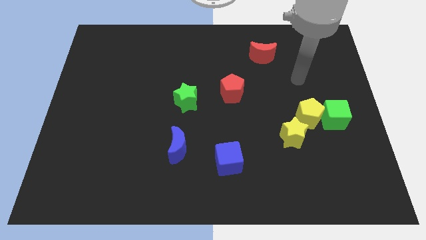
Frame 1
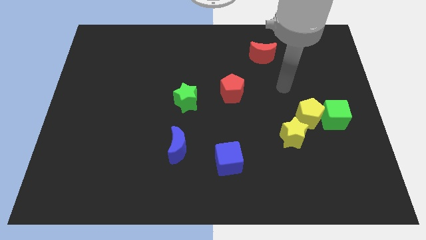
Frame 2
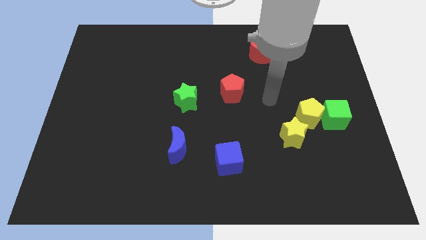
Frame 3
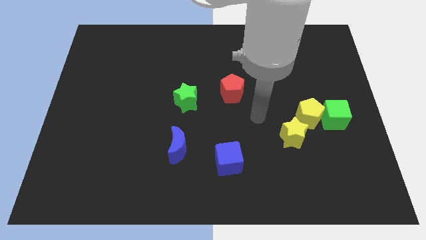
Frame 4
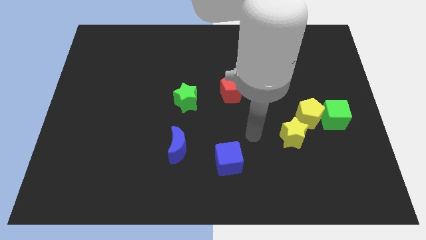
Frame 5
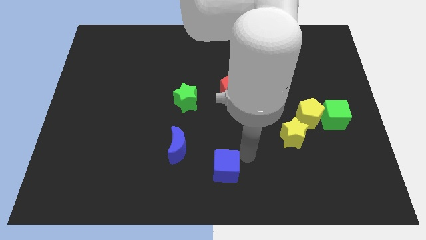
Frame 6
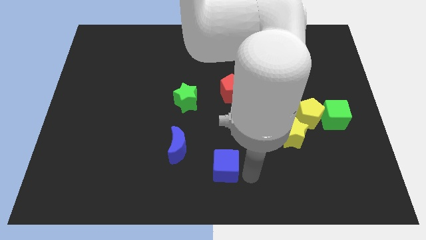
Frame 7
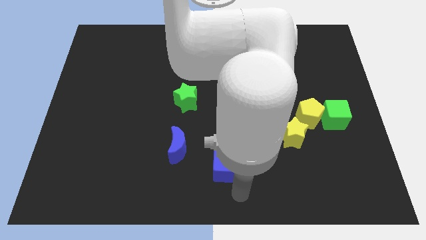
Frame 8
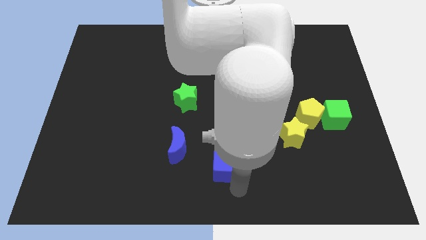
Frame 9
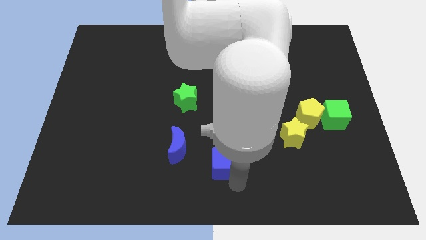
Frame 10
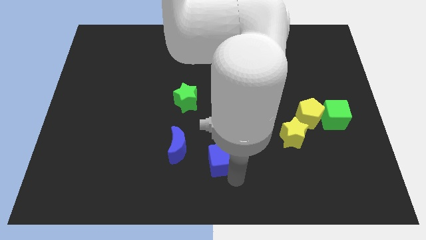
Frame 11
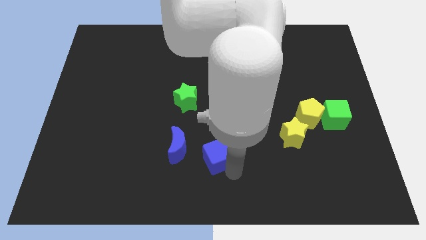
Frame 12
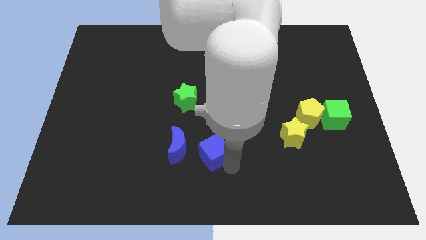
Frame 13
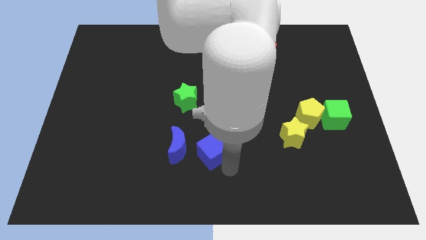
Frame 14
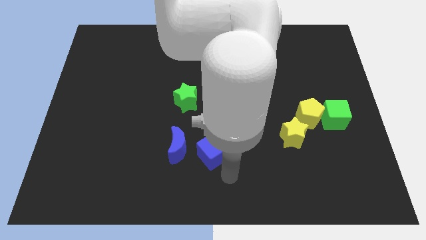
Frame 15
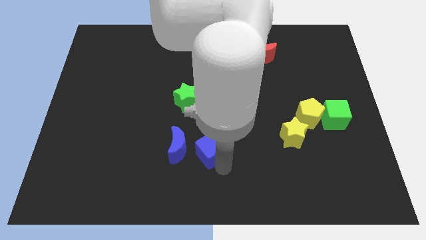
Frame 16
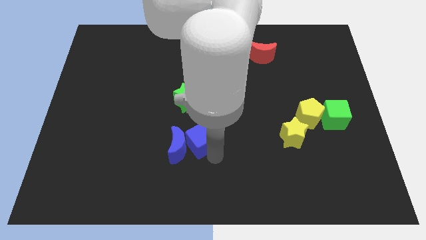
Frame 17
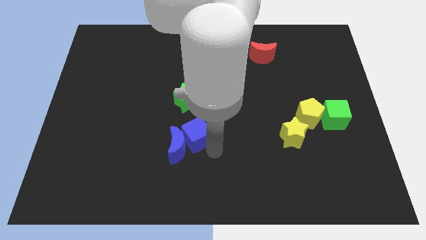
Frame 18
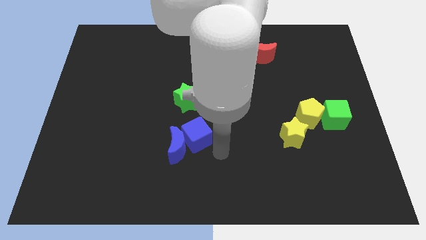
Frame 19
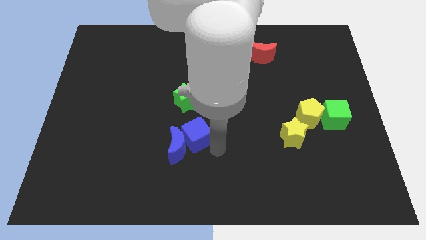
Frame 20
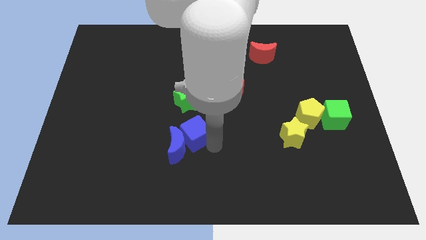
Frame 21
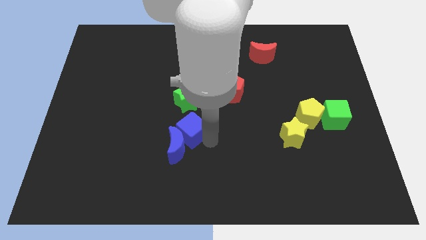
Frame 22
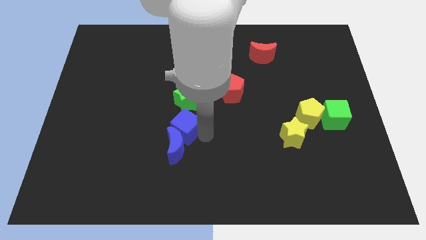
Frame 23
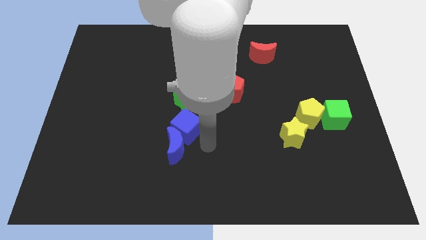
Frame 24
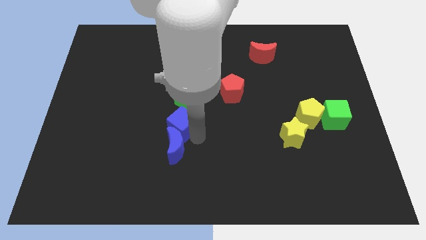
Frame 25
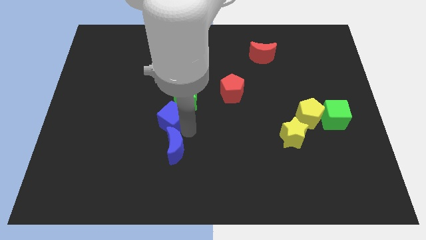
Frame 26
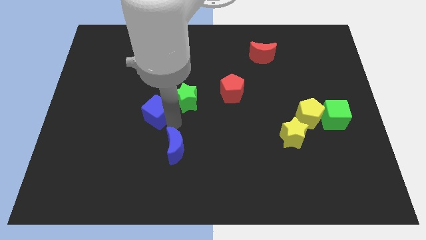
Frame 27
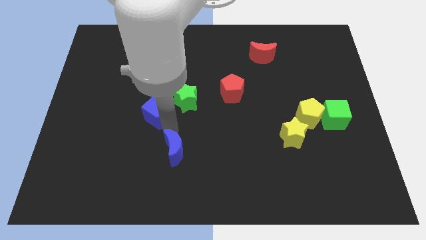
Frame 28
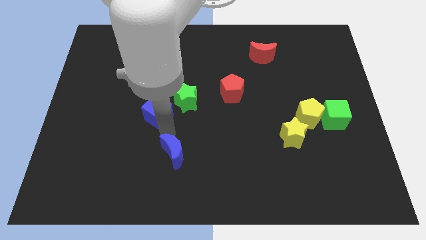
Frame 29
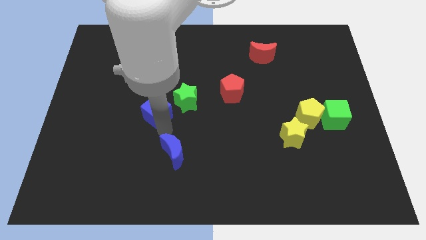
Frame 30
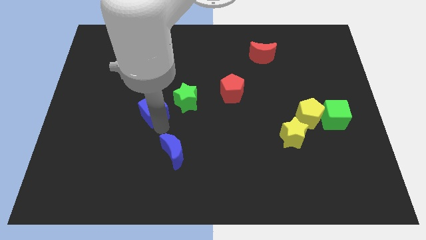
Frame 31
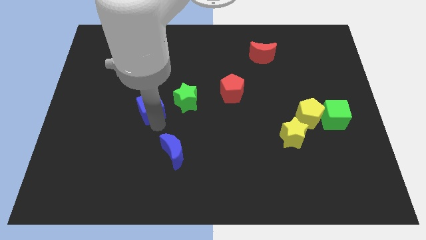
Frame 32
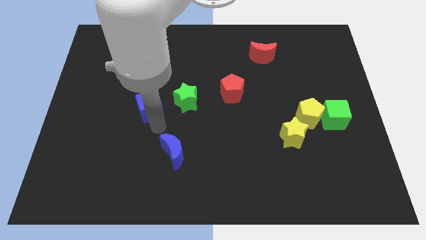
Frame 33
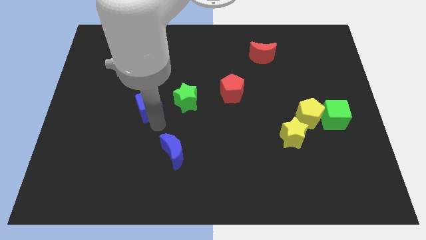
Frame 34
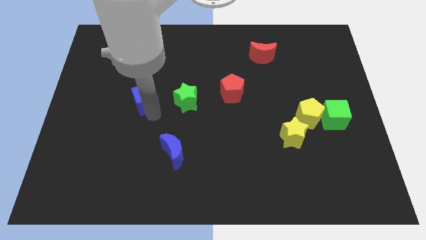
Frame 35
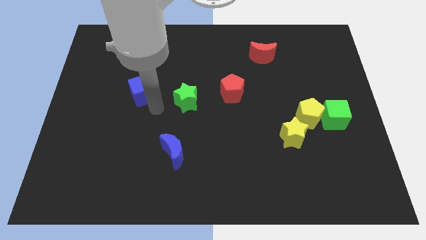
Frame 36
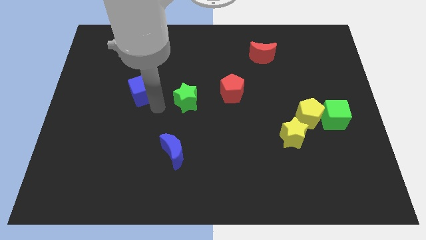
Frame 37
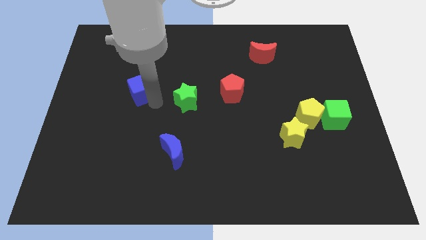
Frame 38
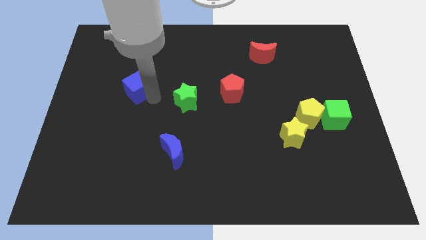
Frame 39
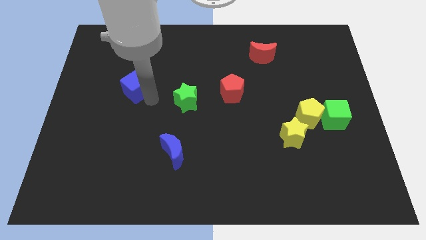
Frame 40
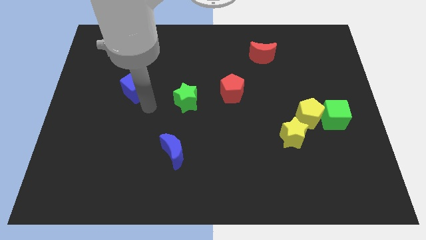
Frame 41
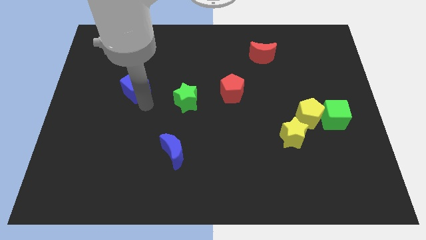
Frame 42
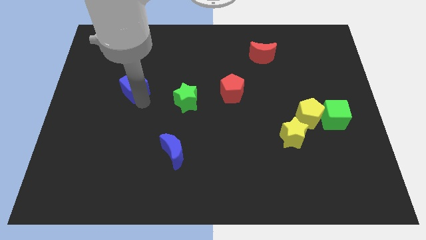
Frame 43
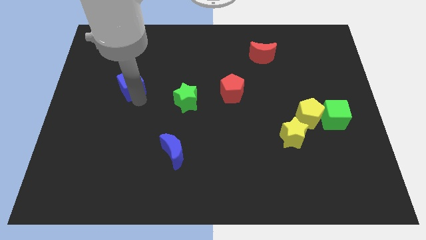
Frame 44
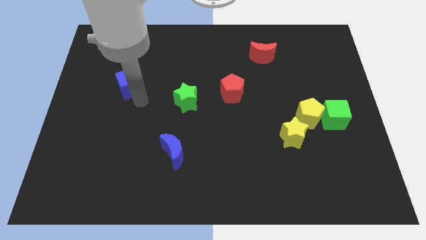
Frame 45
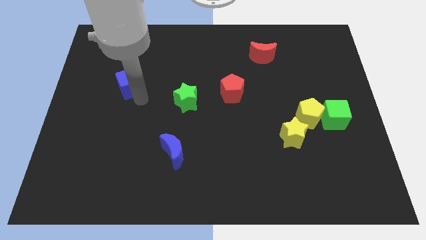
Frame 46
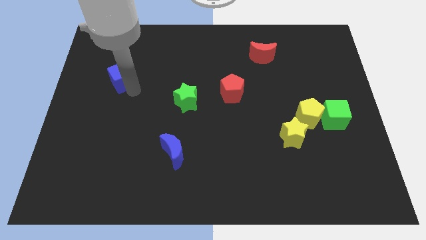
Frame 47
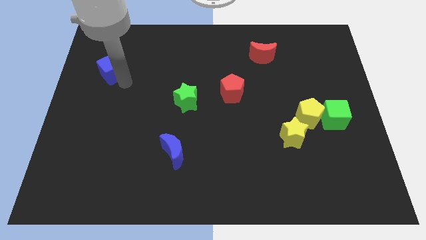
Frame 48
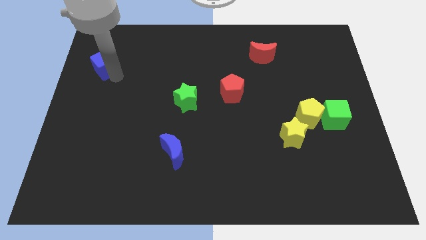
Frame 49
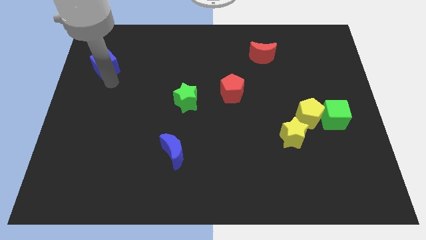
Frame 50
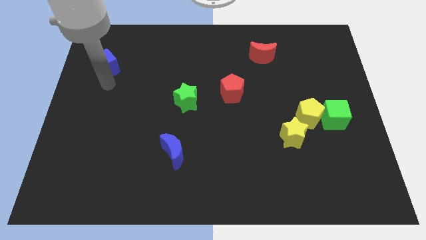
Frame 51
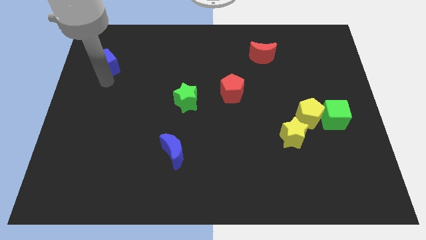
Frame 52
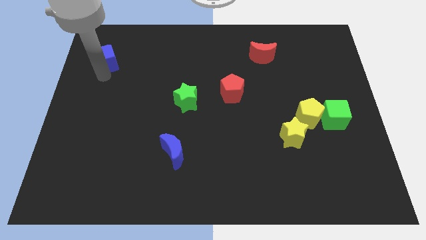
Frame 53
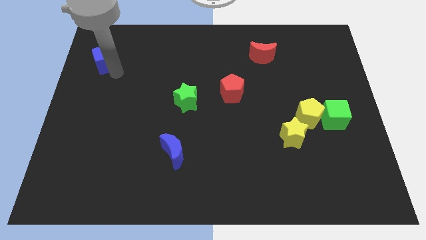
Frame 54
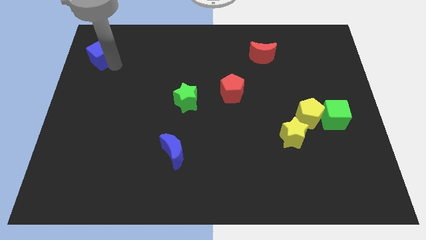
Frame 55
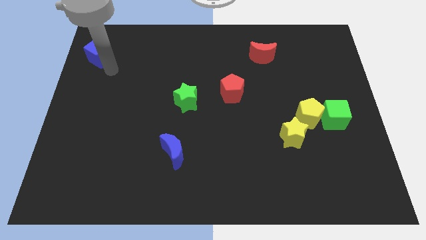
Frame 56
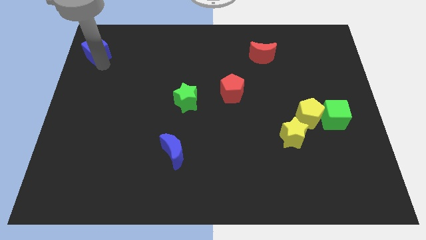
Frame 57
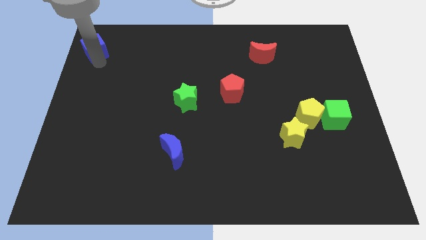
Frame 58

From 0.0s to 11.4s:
push the blue cube to the top left

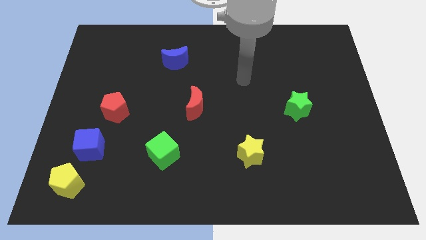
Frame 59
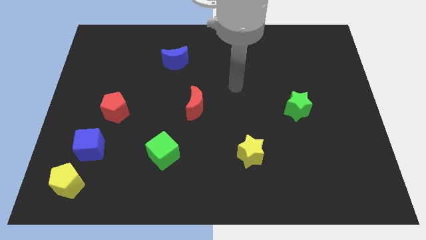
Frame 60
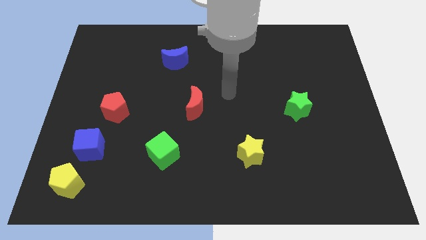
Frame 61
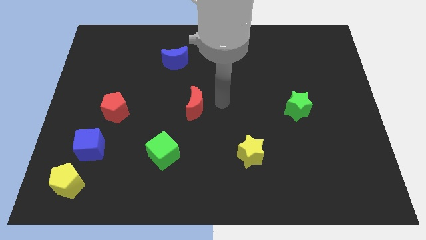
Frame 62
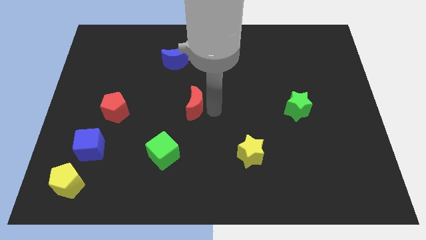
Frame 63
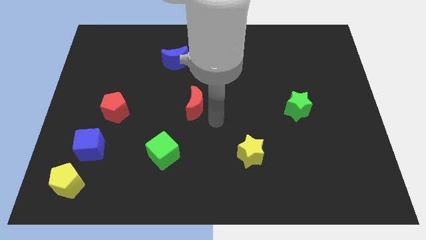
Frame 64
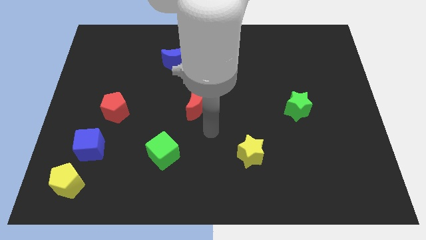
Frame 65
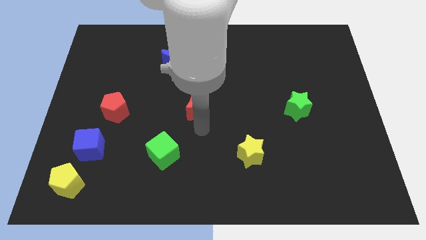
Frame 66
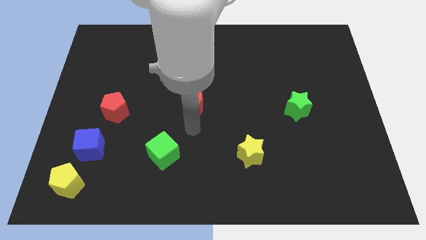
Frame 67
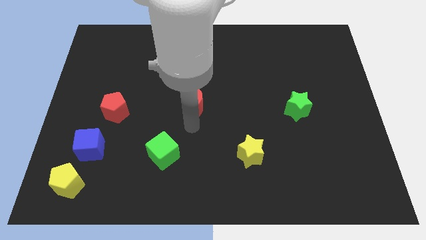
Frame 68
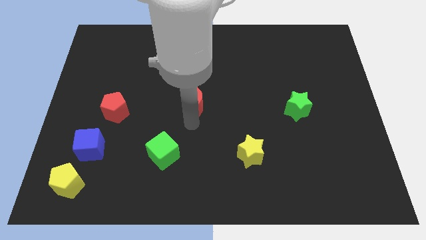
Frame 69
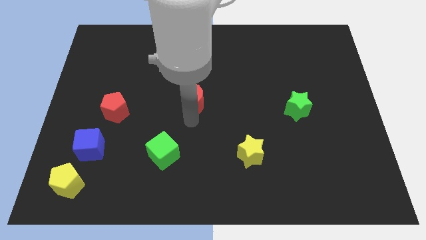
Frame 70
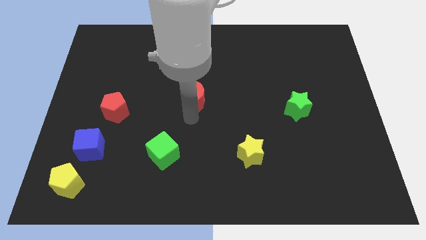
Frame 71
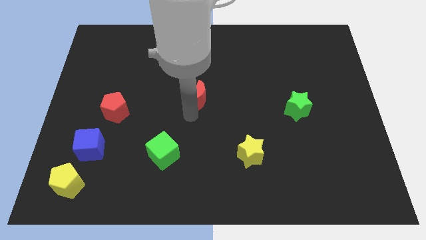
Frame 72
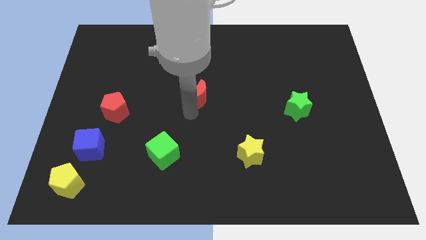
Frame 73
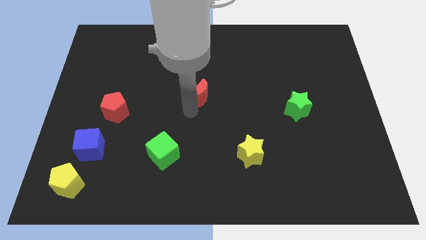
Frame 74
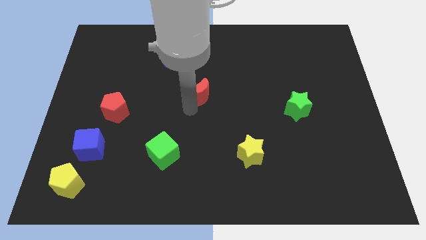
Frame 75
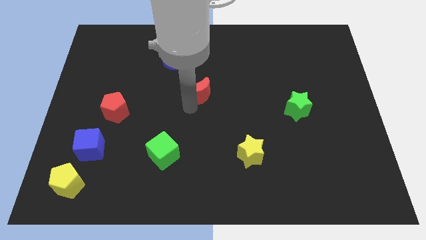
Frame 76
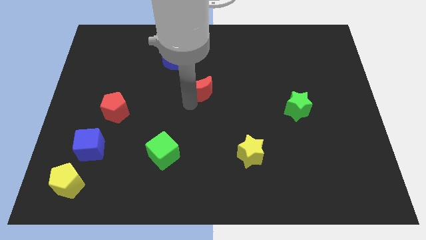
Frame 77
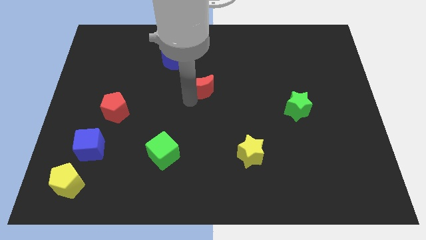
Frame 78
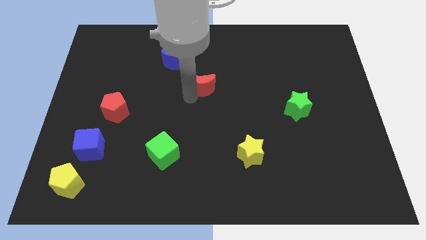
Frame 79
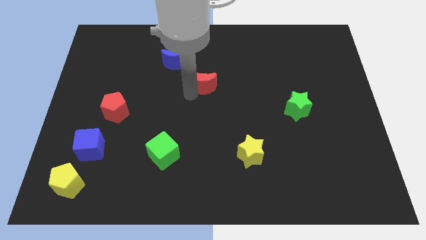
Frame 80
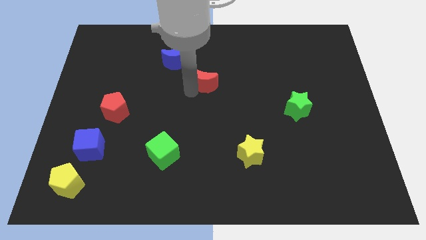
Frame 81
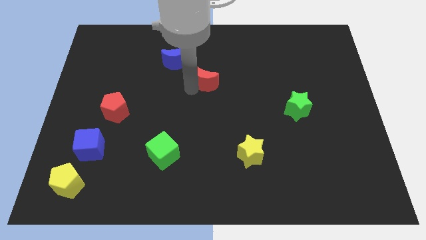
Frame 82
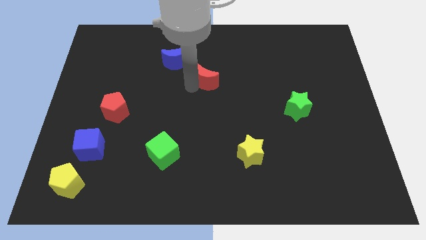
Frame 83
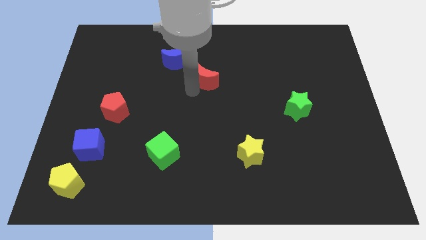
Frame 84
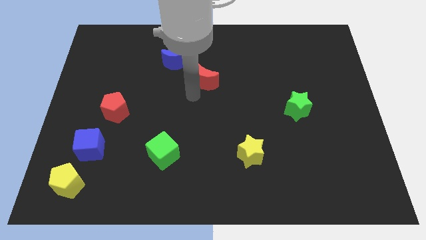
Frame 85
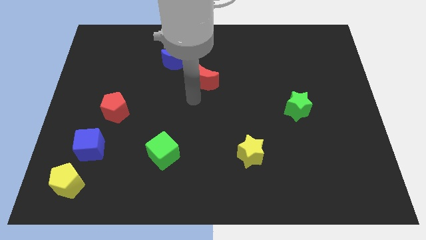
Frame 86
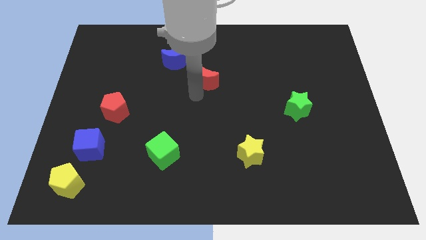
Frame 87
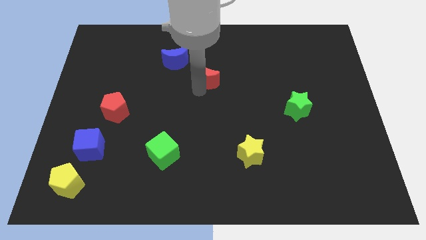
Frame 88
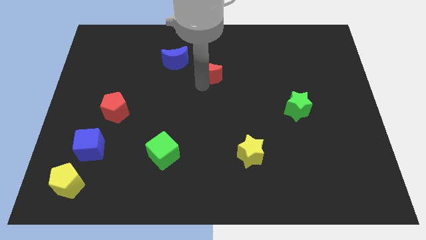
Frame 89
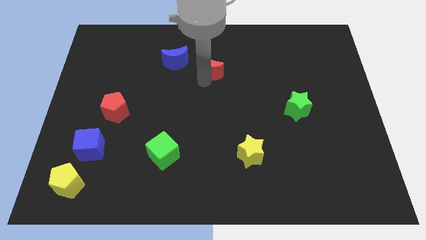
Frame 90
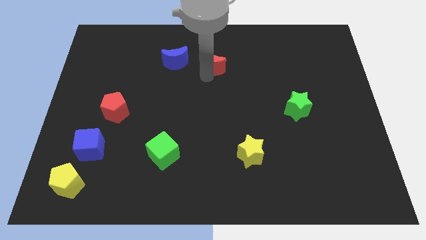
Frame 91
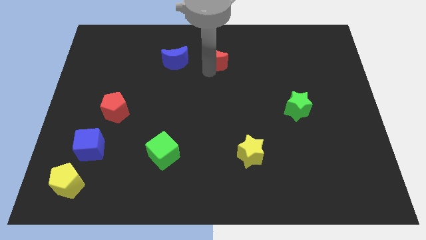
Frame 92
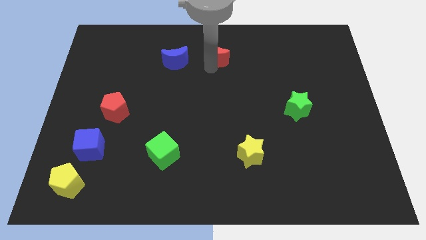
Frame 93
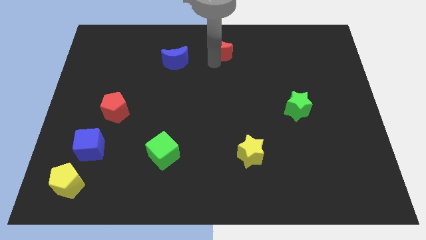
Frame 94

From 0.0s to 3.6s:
push the red moon to the top side
